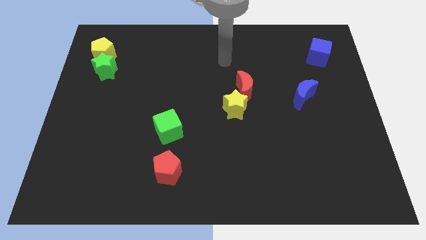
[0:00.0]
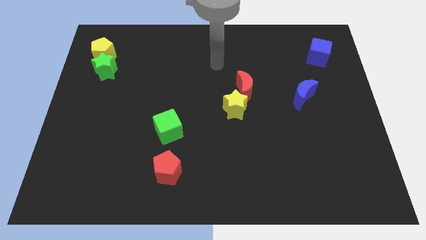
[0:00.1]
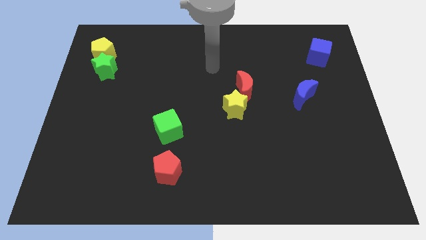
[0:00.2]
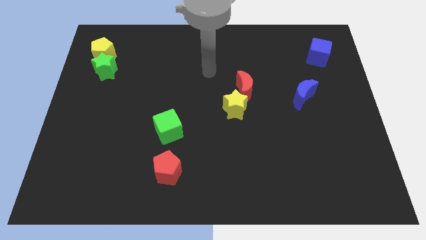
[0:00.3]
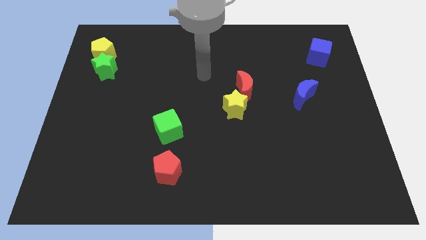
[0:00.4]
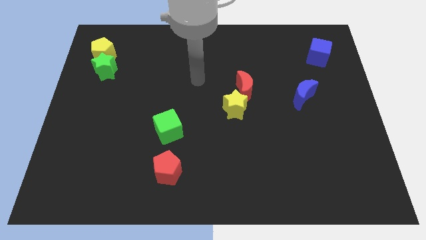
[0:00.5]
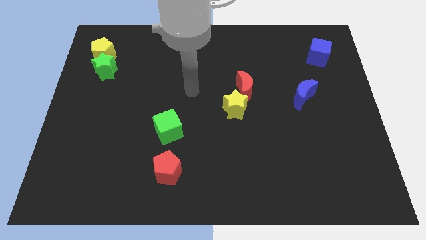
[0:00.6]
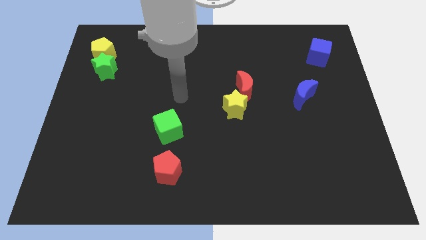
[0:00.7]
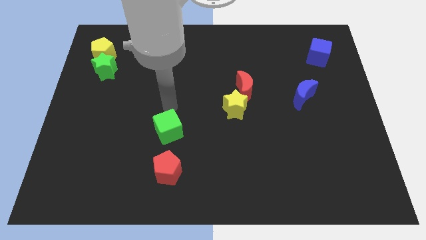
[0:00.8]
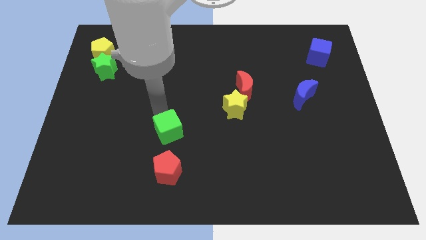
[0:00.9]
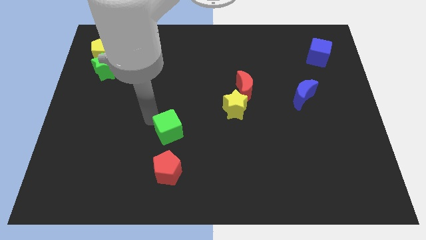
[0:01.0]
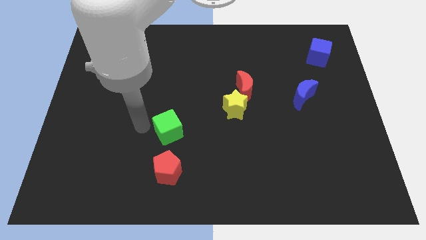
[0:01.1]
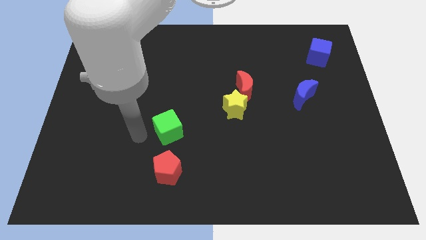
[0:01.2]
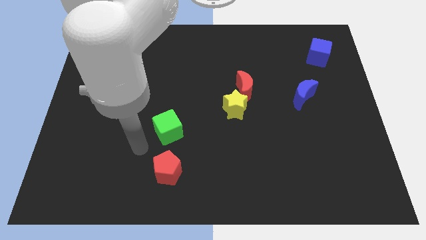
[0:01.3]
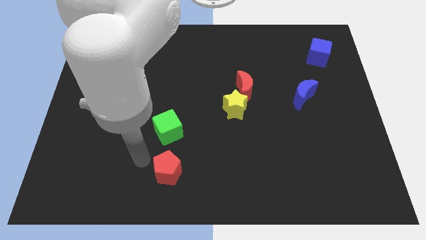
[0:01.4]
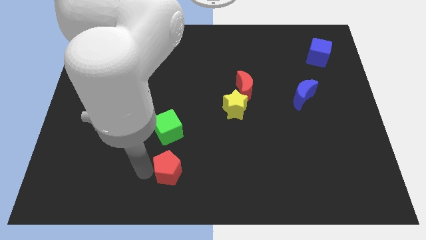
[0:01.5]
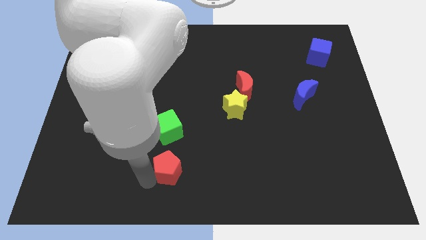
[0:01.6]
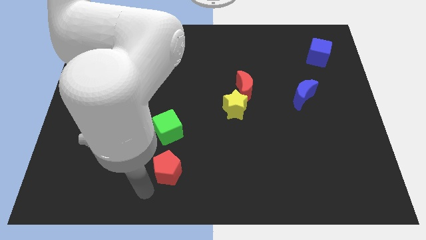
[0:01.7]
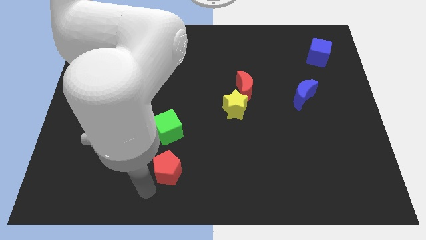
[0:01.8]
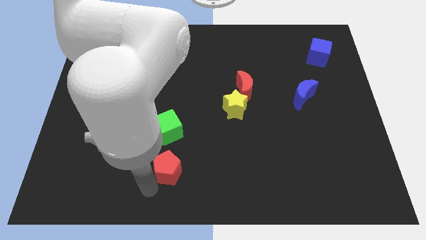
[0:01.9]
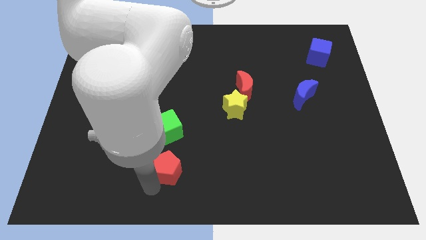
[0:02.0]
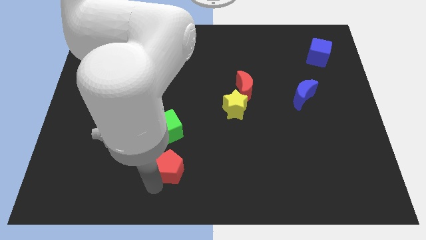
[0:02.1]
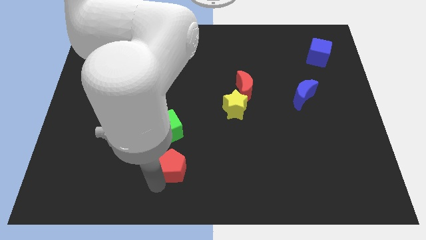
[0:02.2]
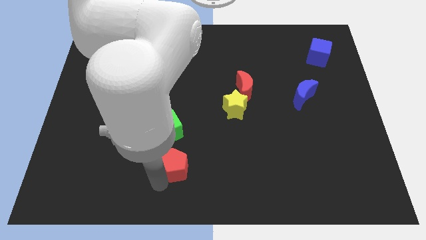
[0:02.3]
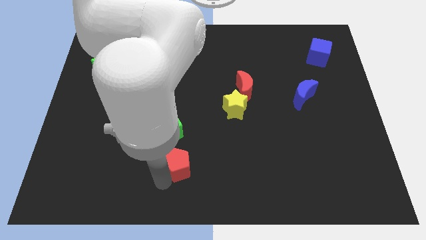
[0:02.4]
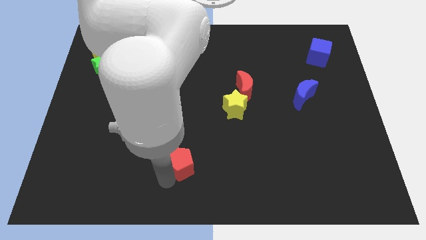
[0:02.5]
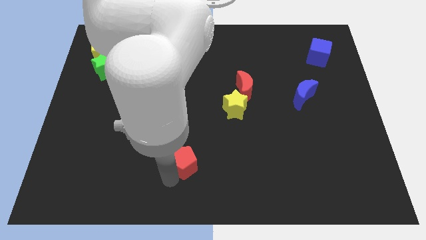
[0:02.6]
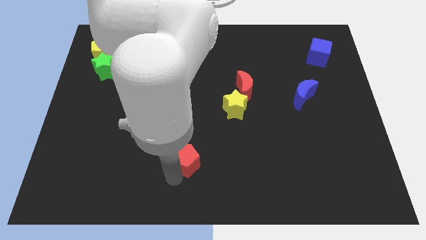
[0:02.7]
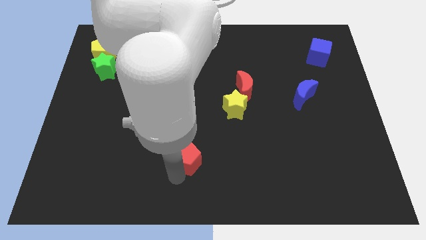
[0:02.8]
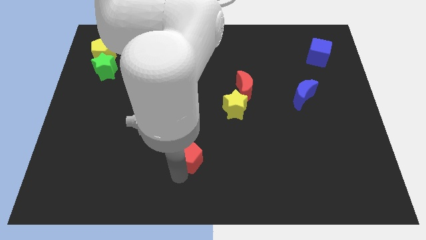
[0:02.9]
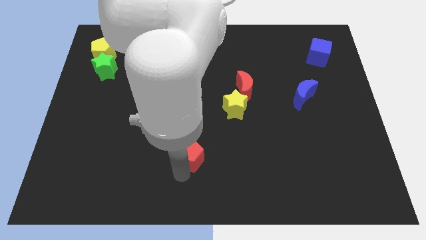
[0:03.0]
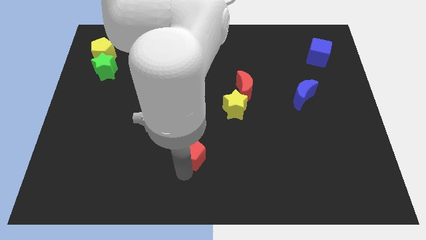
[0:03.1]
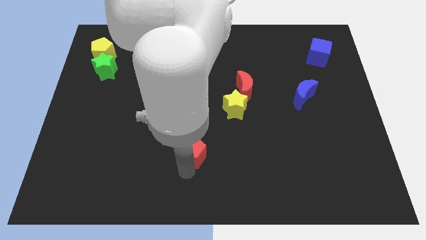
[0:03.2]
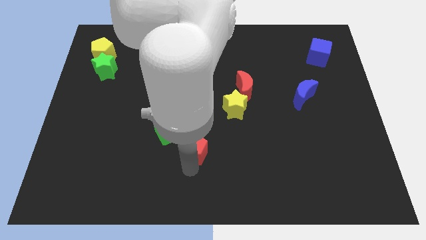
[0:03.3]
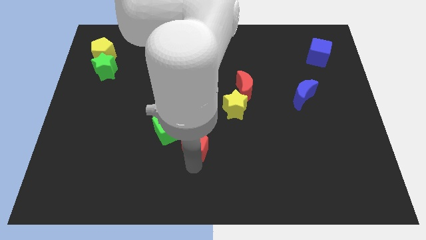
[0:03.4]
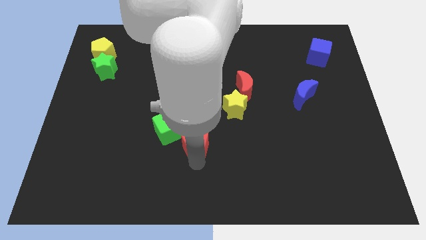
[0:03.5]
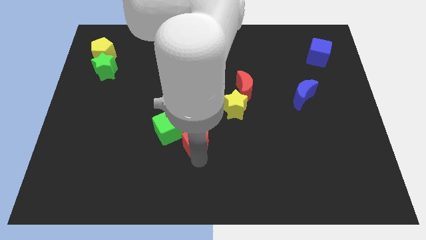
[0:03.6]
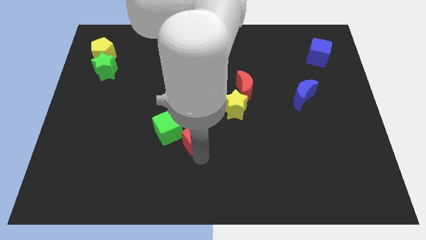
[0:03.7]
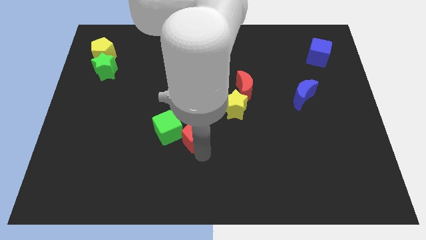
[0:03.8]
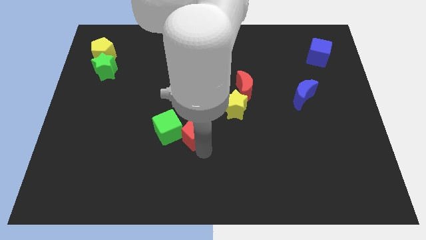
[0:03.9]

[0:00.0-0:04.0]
slightly slide the red pentagon up

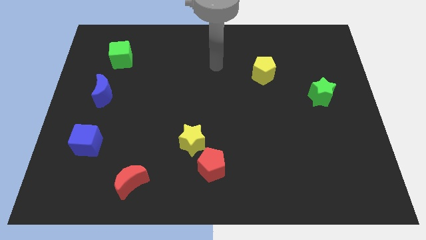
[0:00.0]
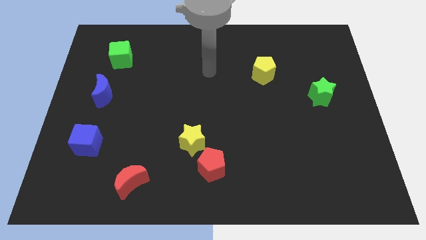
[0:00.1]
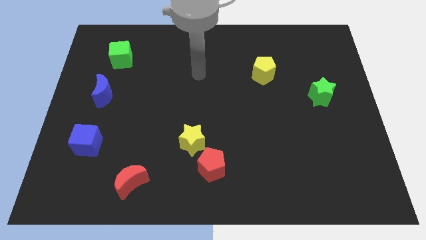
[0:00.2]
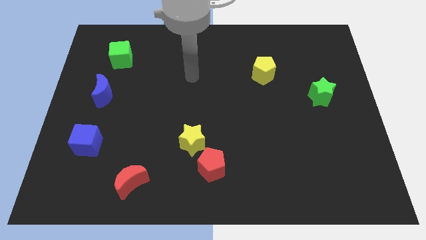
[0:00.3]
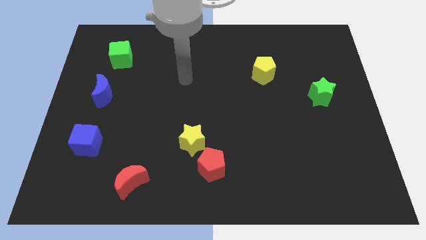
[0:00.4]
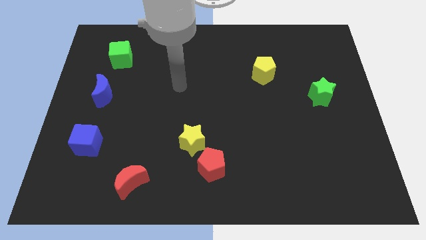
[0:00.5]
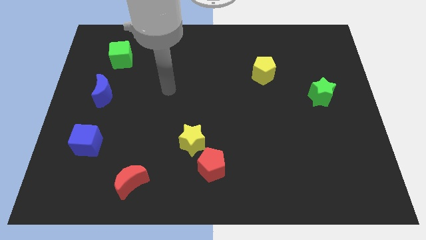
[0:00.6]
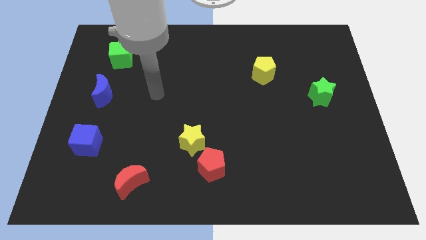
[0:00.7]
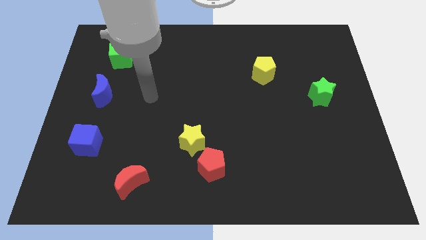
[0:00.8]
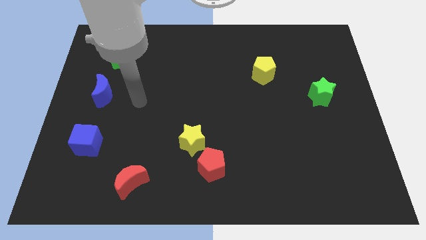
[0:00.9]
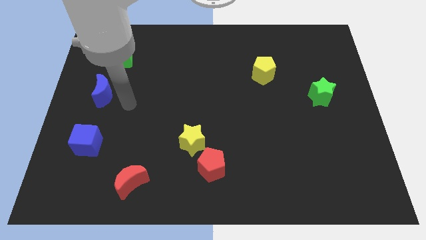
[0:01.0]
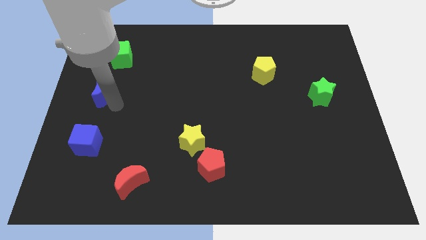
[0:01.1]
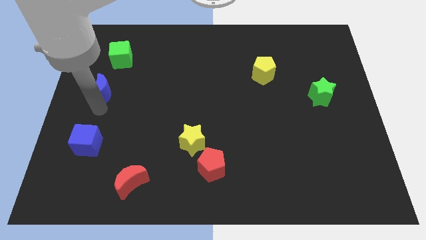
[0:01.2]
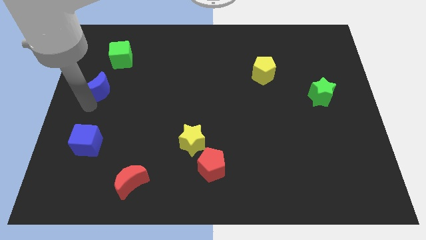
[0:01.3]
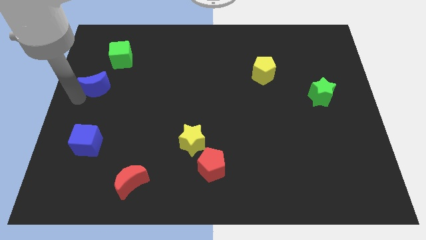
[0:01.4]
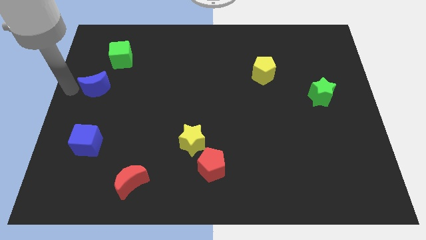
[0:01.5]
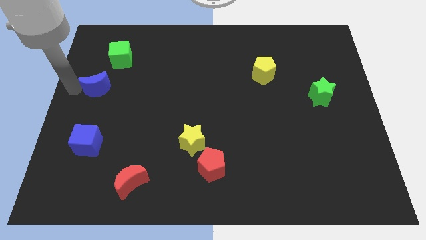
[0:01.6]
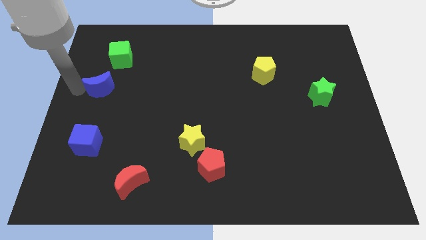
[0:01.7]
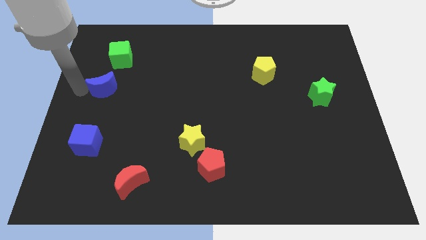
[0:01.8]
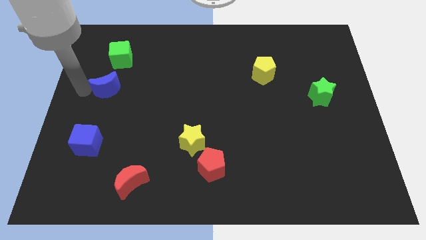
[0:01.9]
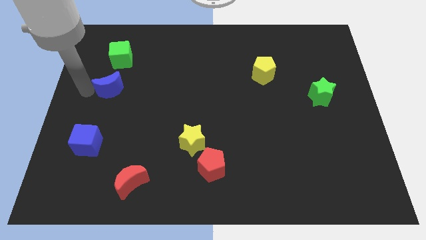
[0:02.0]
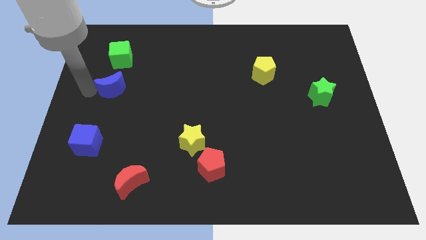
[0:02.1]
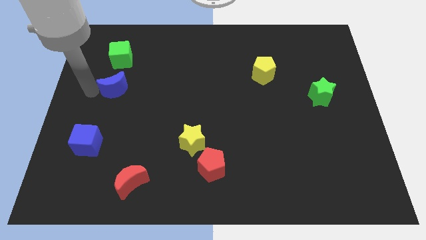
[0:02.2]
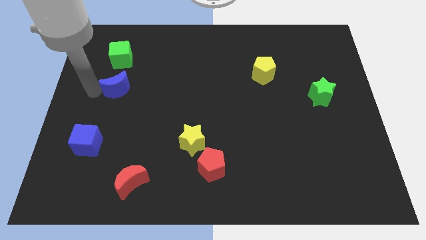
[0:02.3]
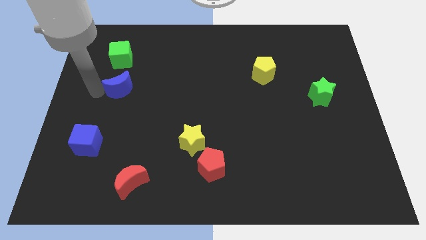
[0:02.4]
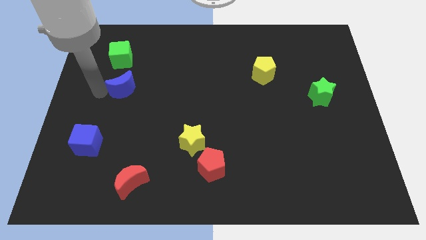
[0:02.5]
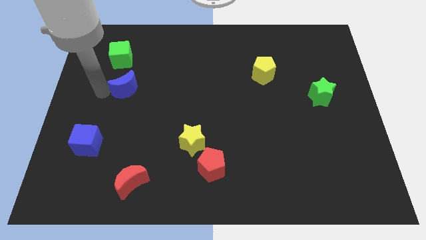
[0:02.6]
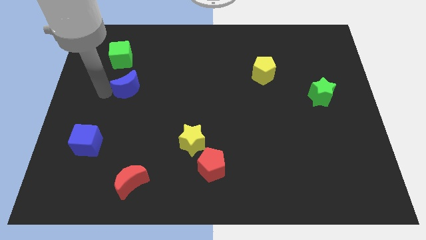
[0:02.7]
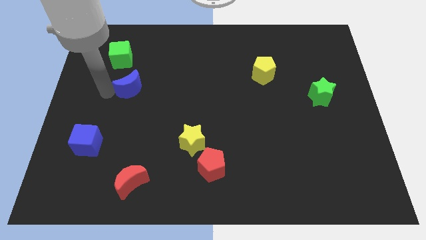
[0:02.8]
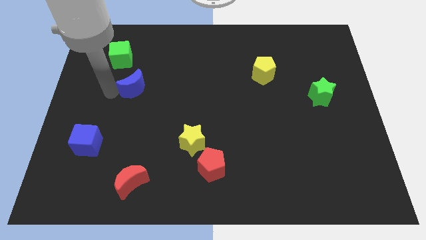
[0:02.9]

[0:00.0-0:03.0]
push the blue moon right a little

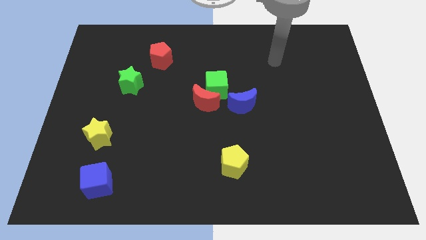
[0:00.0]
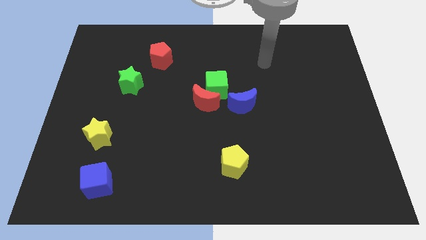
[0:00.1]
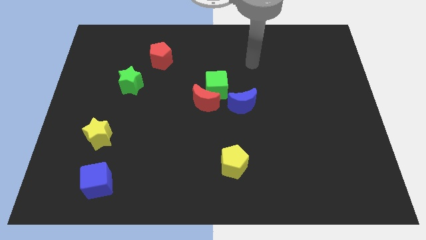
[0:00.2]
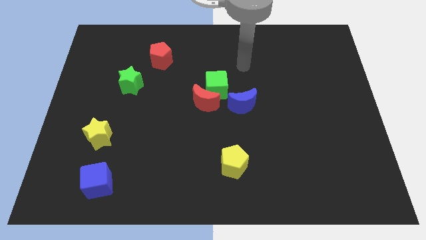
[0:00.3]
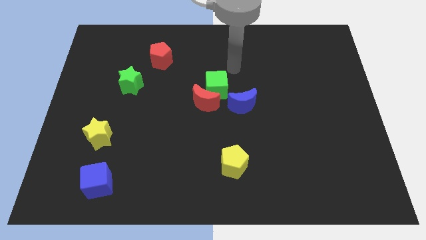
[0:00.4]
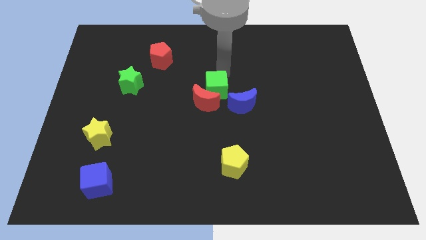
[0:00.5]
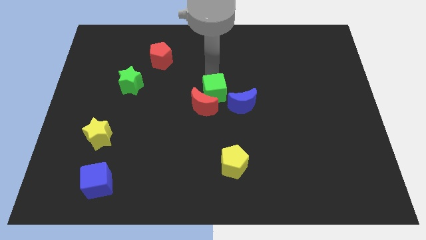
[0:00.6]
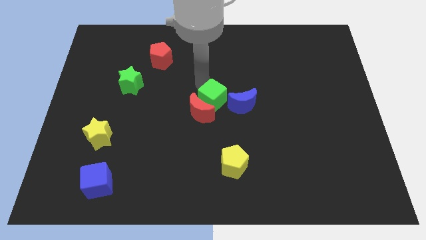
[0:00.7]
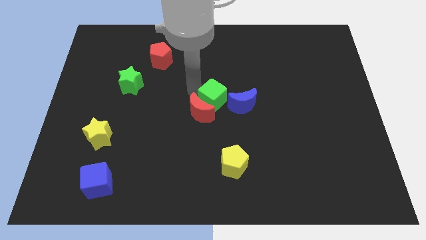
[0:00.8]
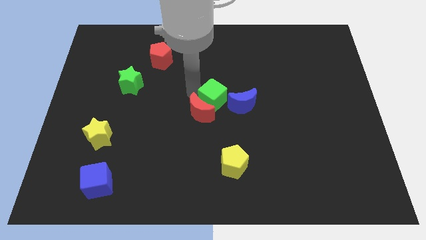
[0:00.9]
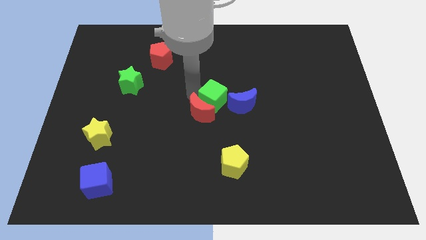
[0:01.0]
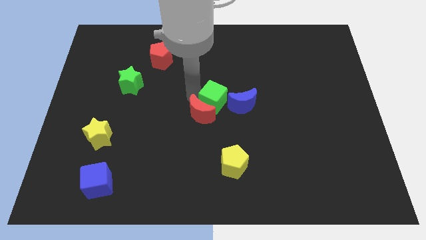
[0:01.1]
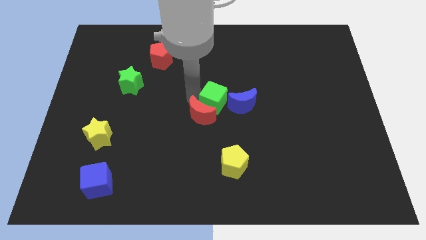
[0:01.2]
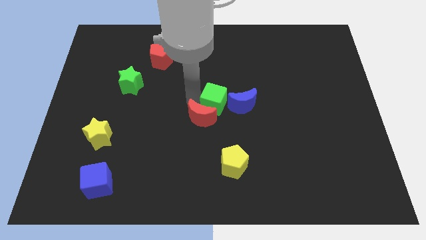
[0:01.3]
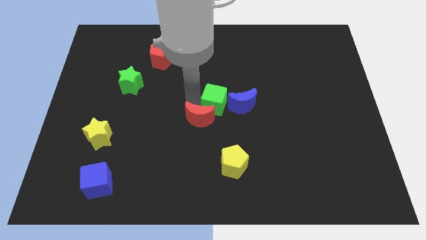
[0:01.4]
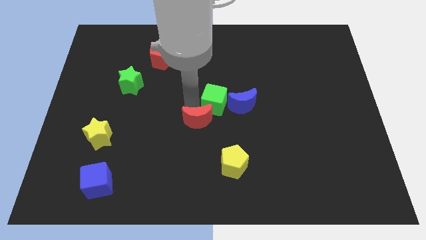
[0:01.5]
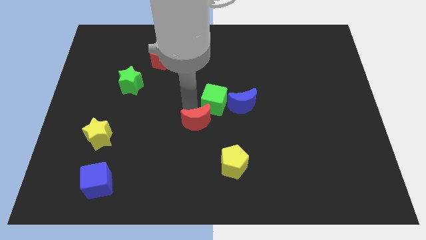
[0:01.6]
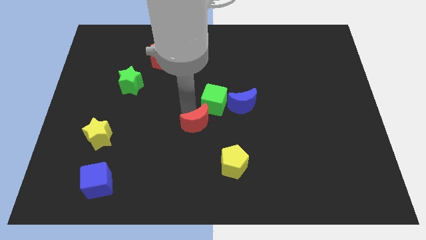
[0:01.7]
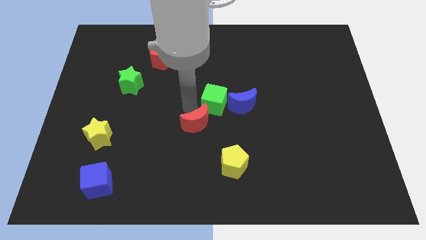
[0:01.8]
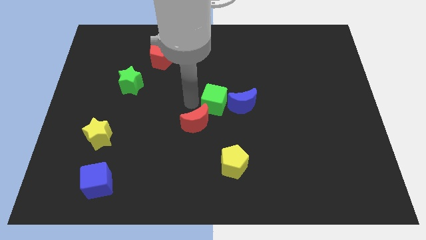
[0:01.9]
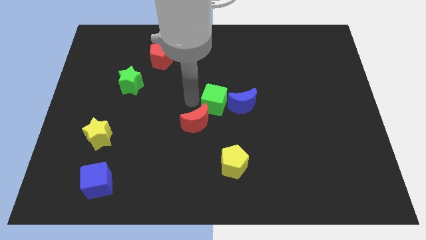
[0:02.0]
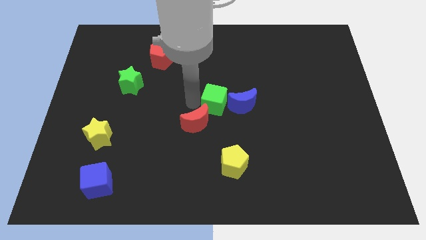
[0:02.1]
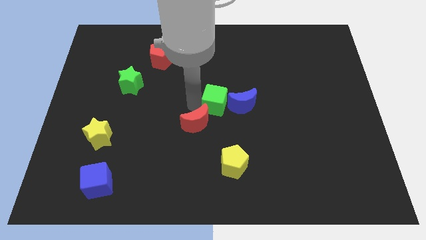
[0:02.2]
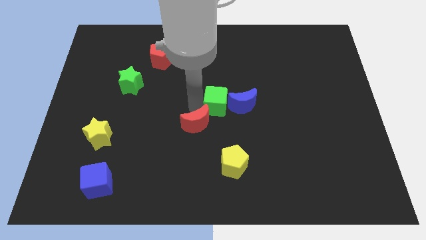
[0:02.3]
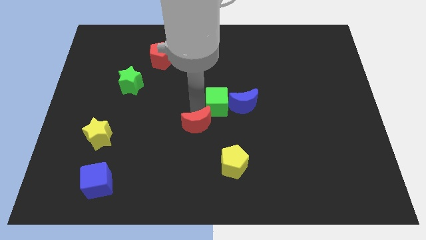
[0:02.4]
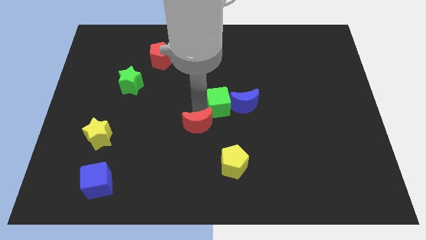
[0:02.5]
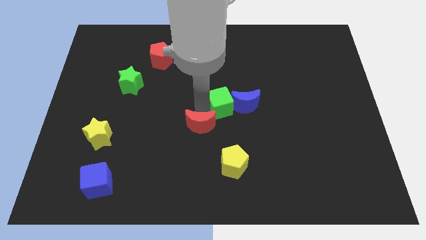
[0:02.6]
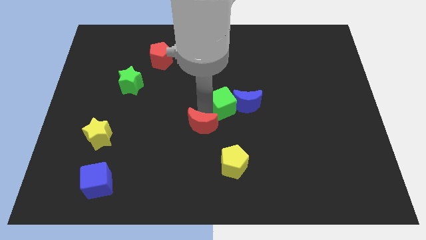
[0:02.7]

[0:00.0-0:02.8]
slide the red moon a little down
